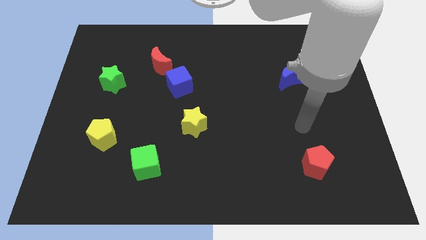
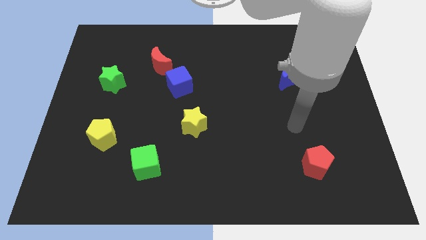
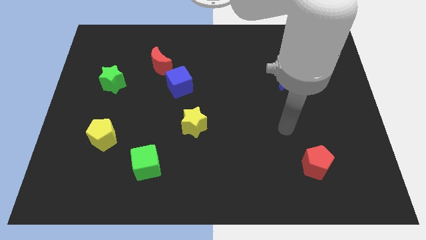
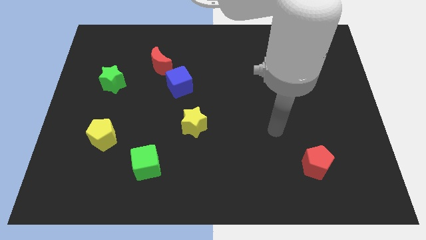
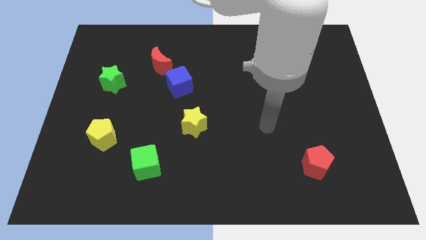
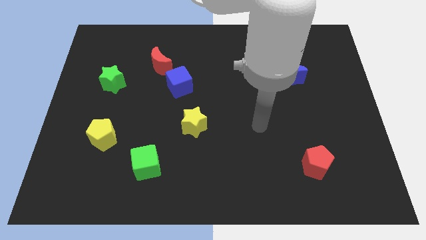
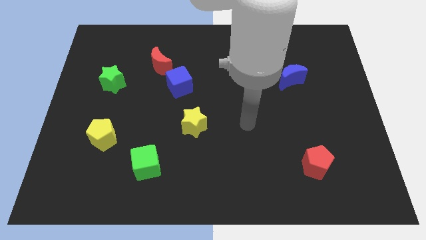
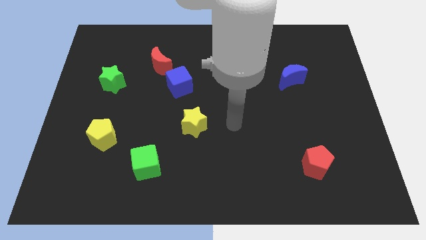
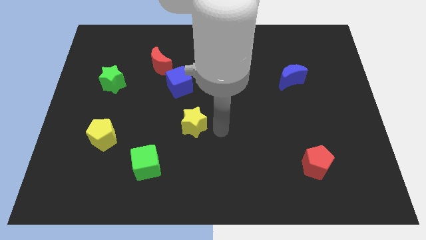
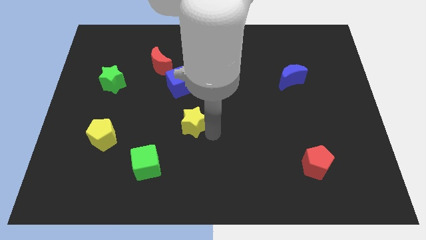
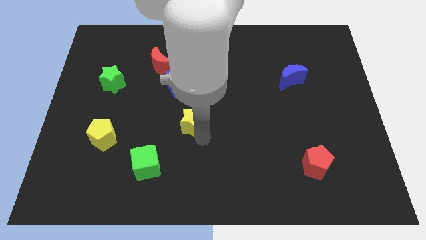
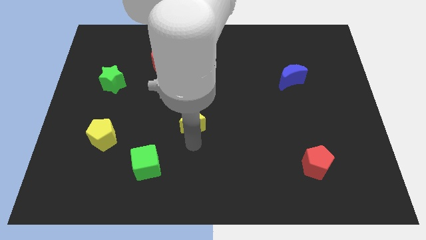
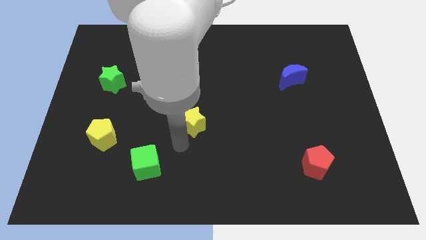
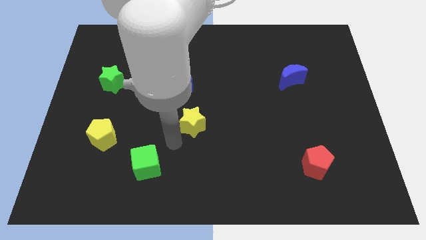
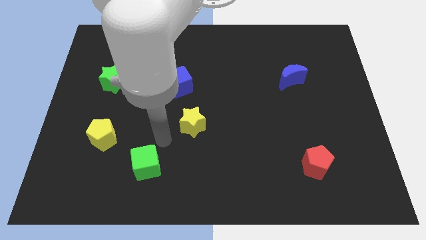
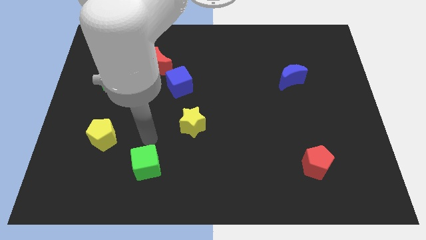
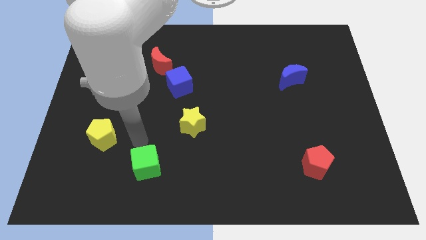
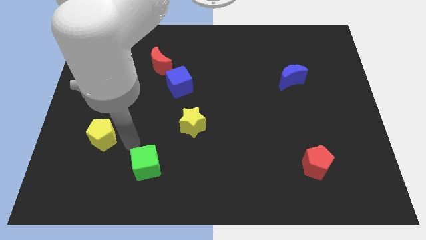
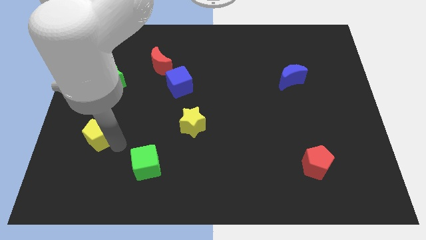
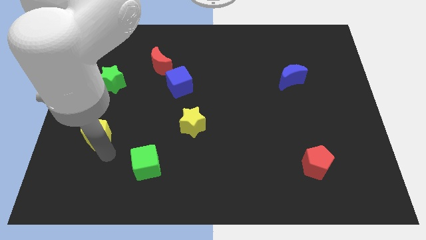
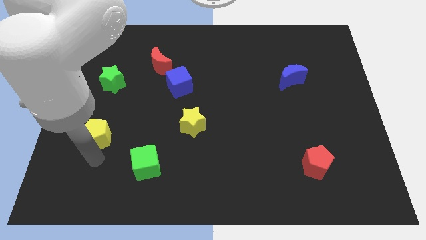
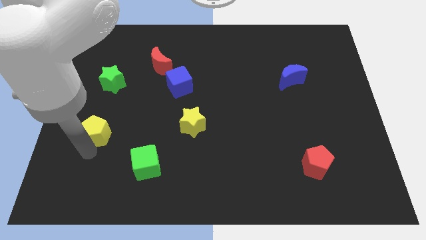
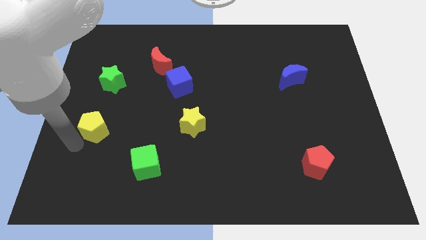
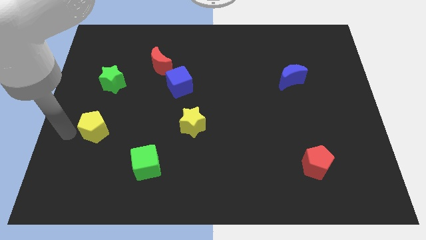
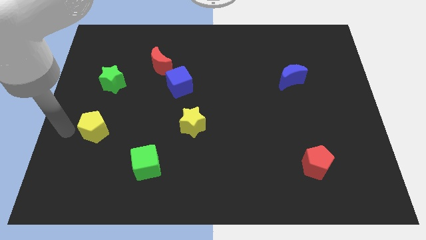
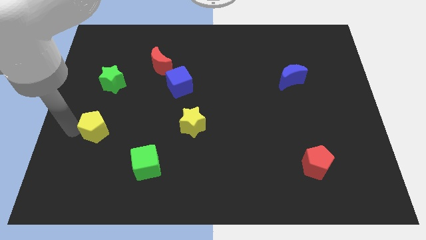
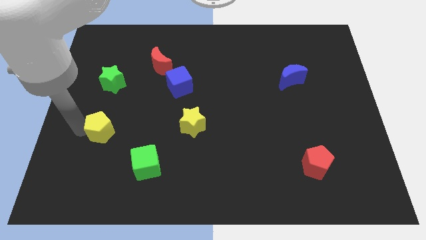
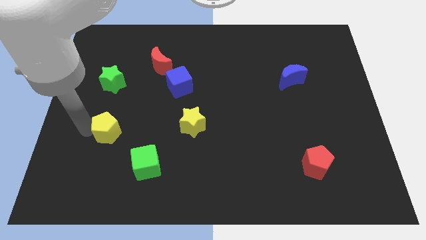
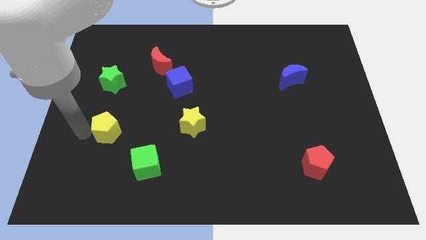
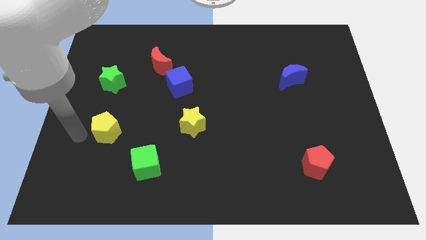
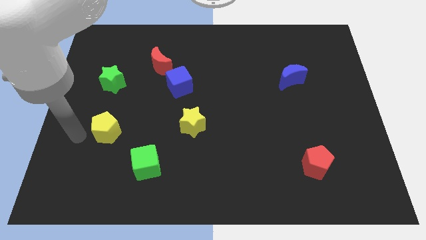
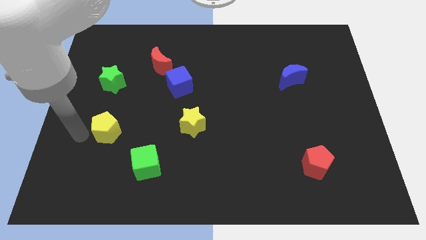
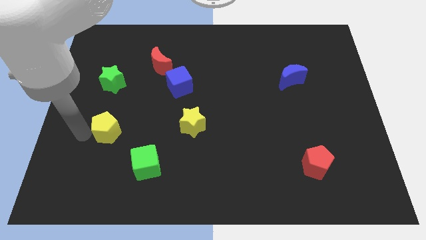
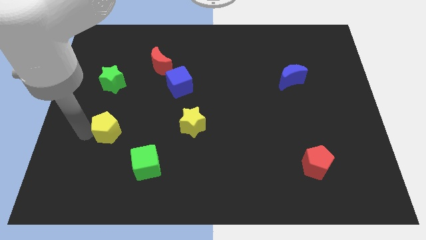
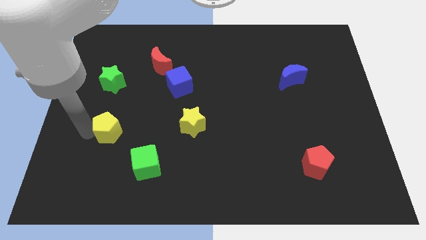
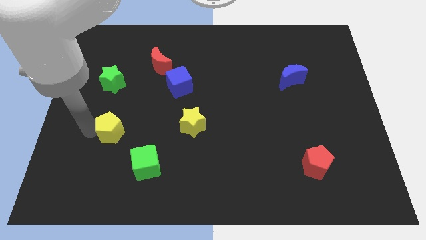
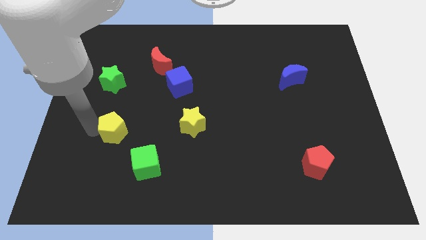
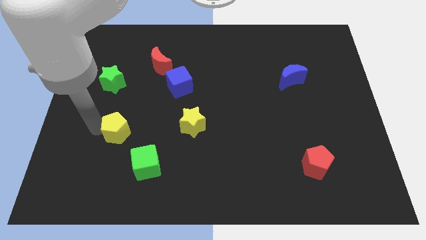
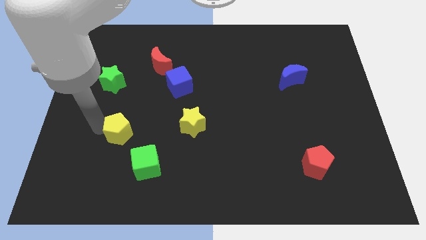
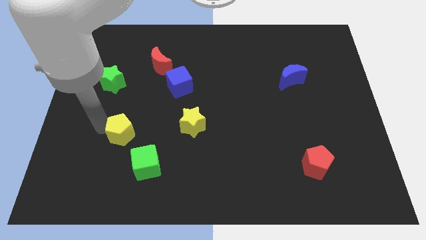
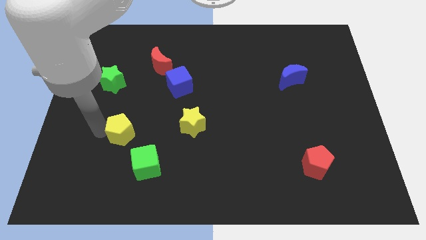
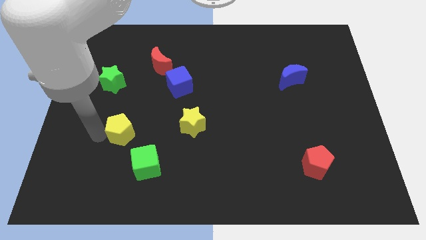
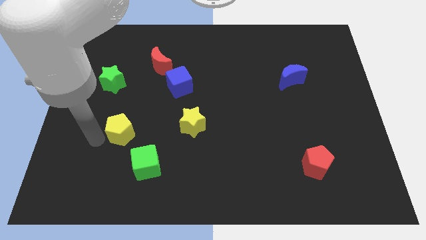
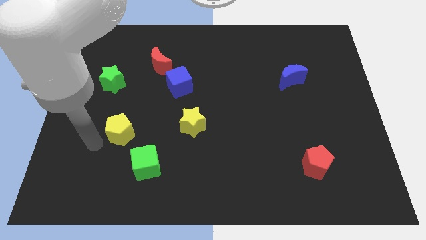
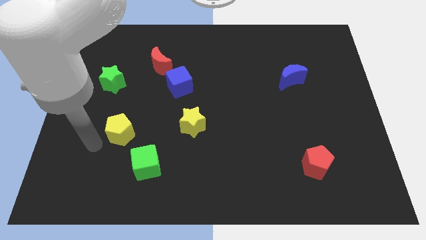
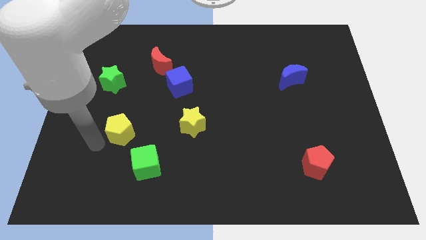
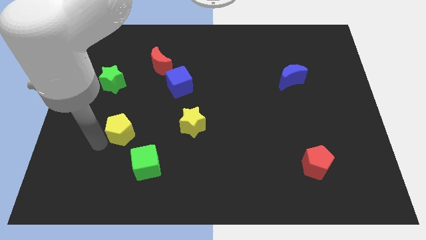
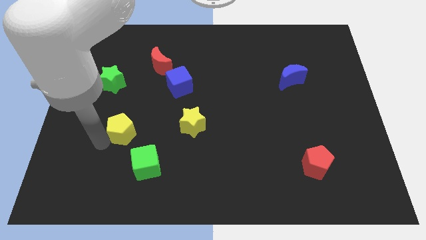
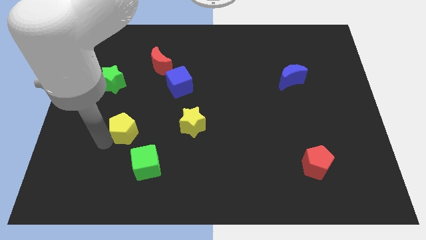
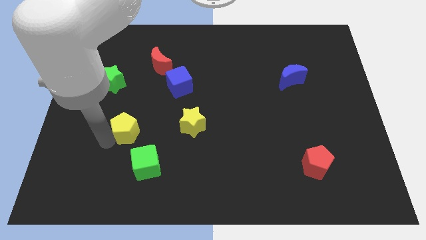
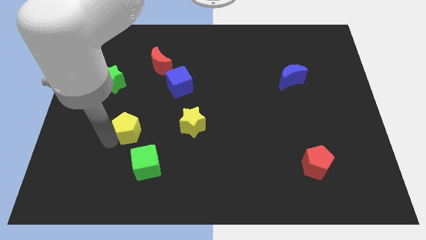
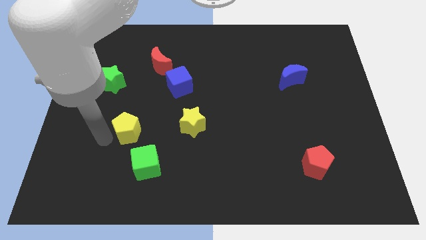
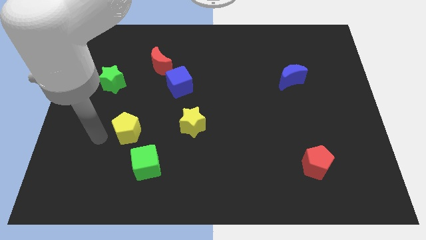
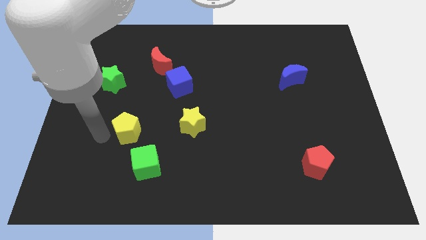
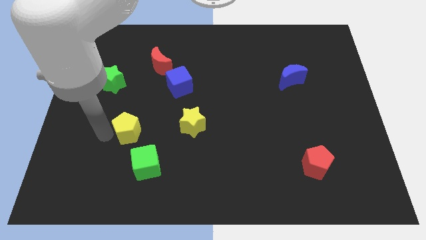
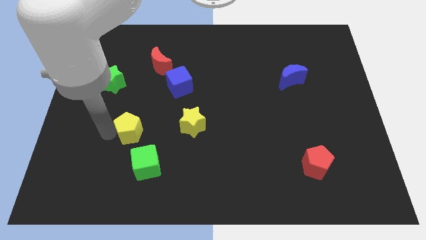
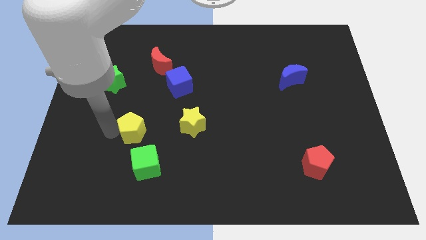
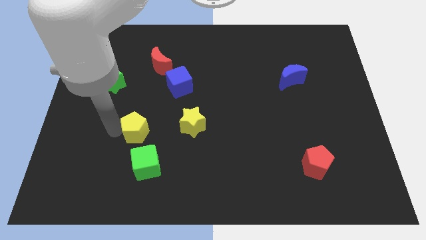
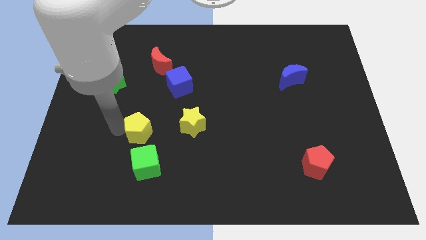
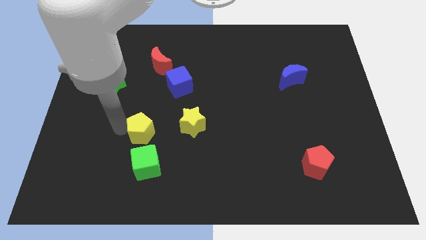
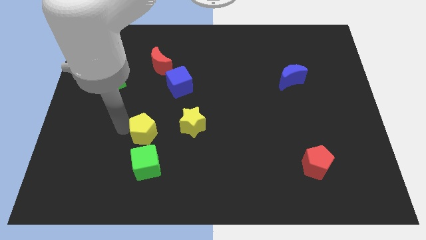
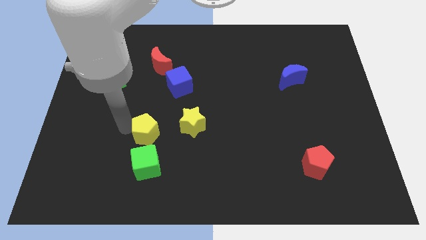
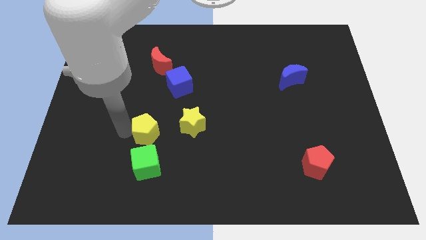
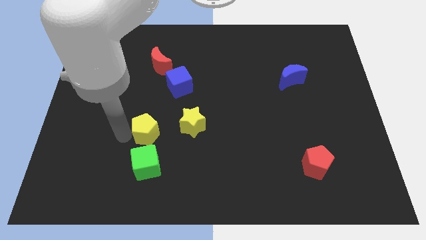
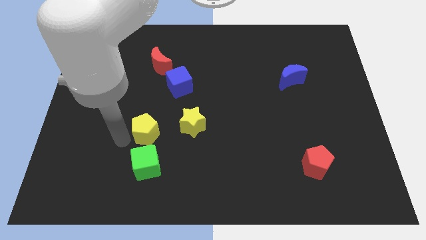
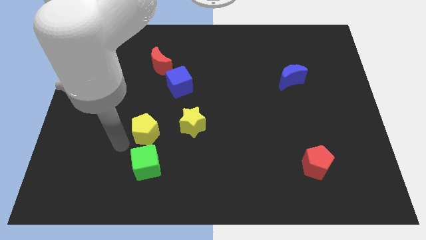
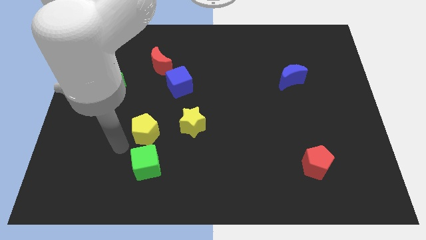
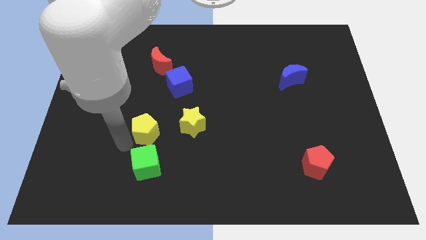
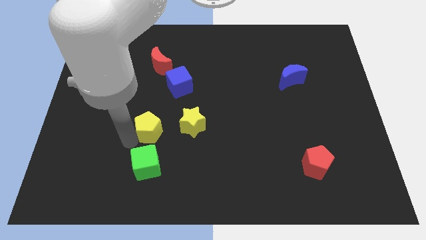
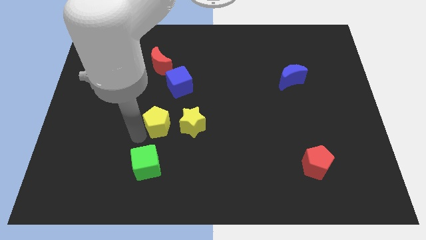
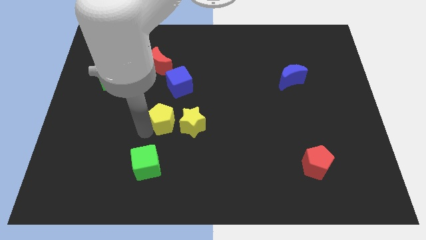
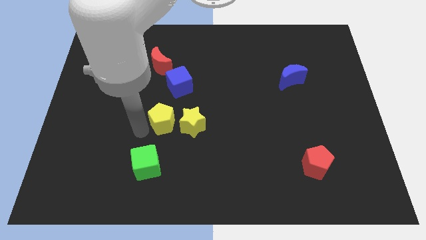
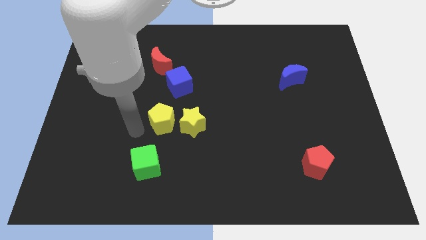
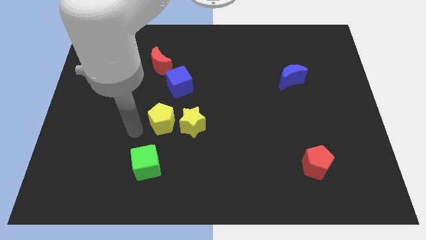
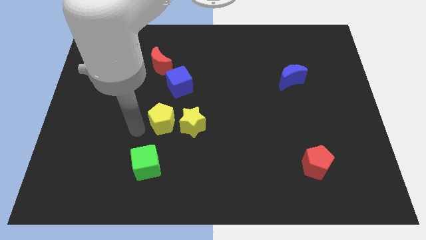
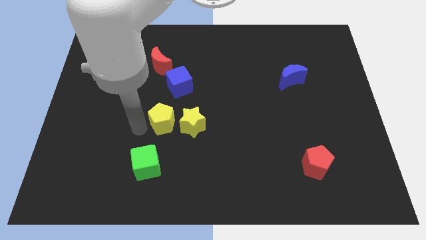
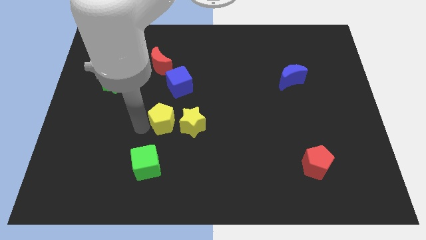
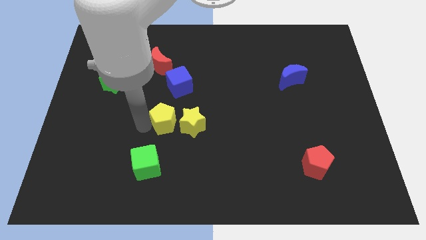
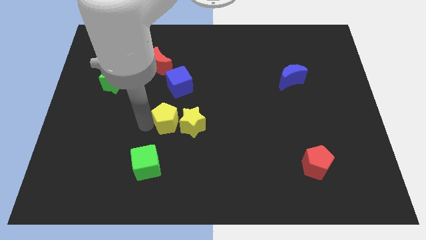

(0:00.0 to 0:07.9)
slide the yellow pentagon to the center of the board
